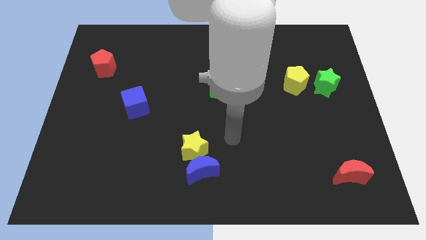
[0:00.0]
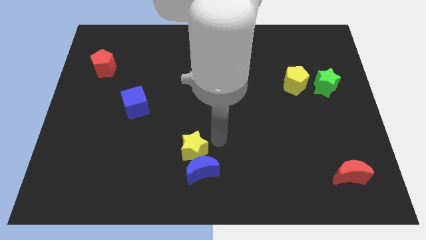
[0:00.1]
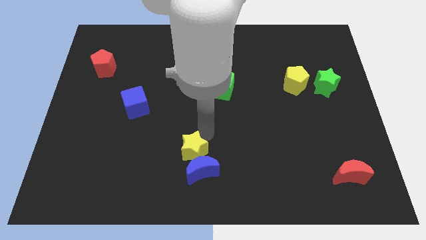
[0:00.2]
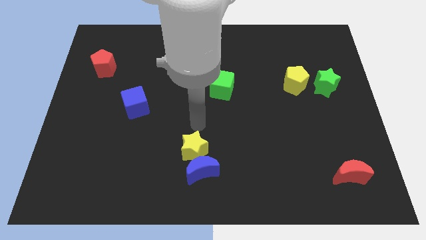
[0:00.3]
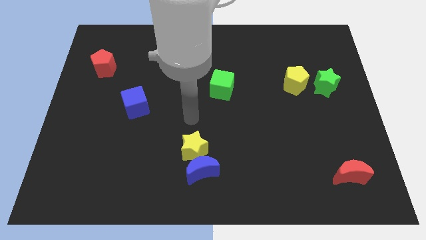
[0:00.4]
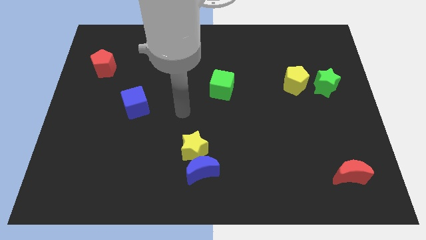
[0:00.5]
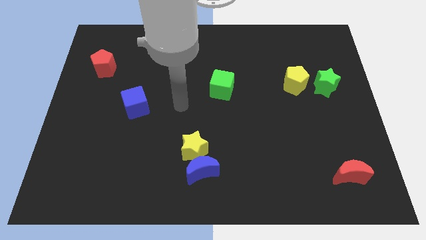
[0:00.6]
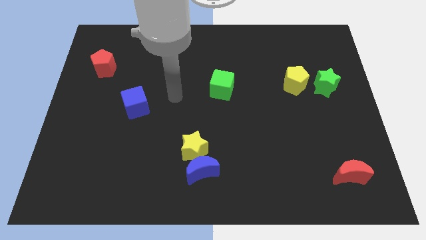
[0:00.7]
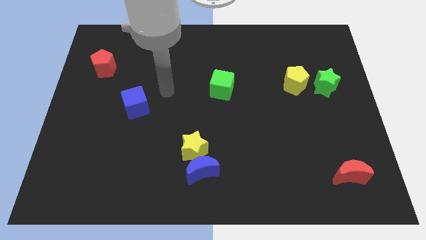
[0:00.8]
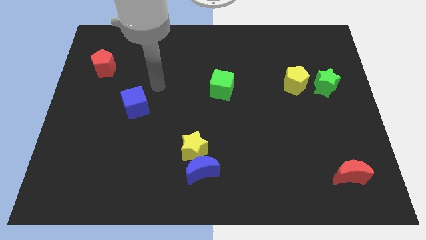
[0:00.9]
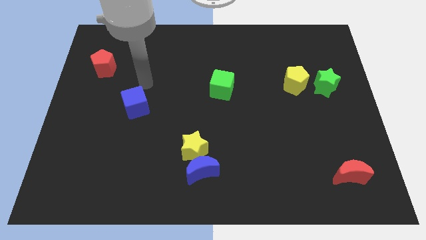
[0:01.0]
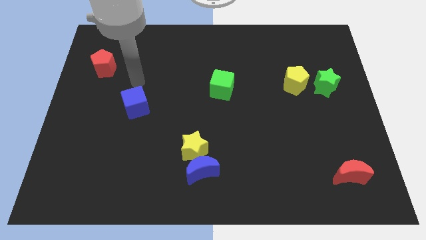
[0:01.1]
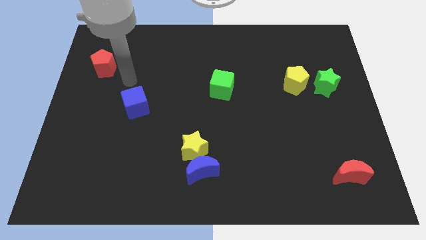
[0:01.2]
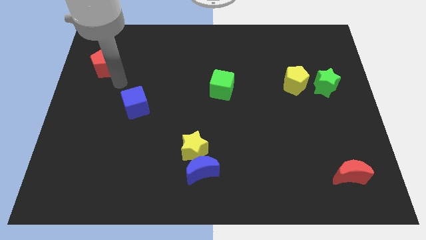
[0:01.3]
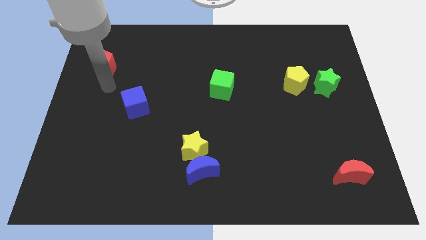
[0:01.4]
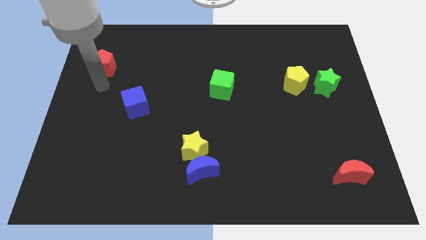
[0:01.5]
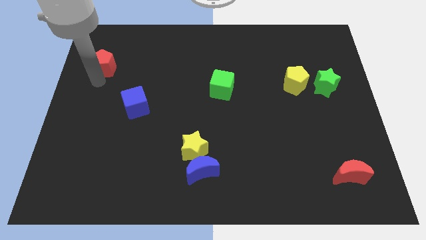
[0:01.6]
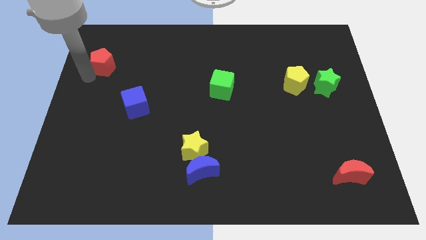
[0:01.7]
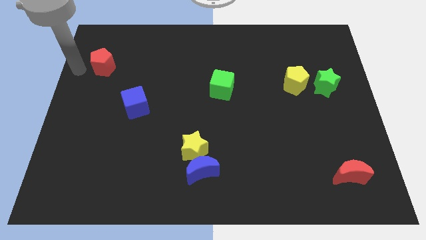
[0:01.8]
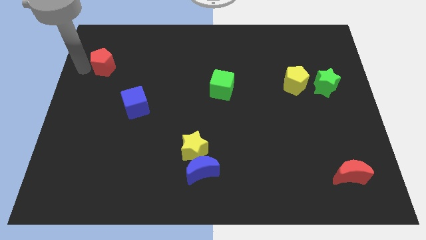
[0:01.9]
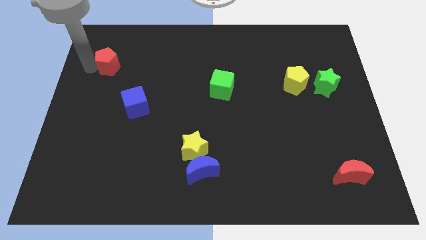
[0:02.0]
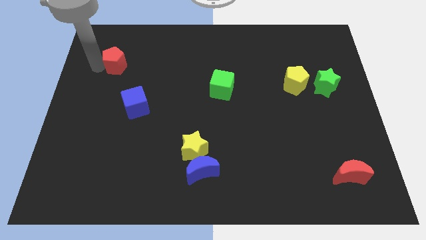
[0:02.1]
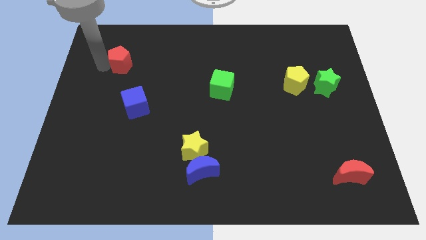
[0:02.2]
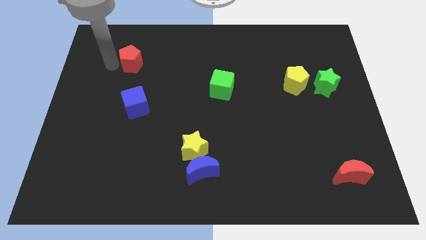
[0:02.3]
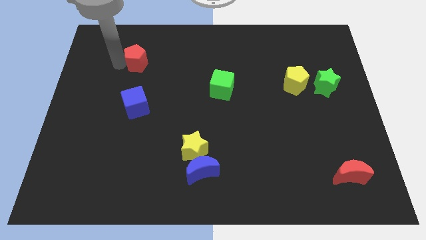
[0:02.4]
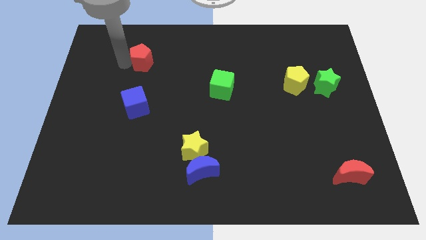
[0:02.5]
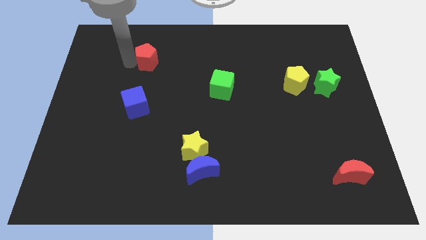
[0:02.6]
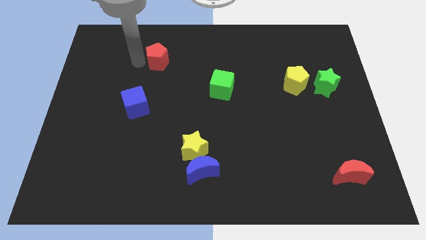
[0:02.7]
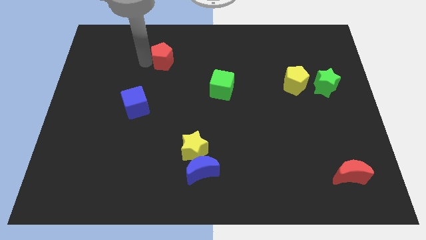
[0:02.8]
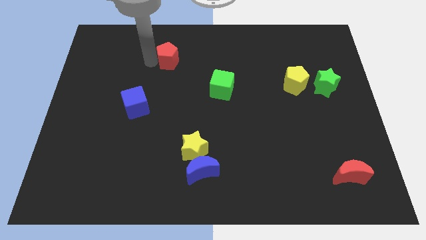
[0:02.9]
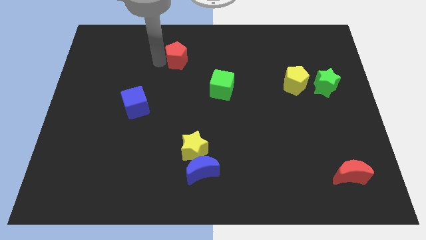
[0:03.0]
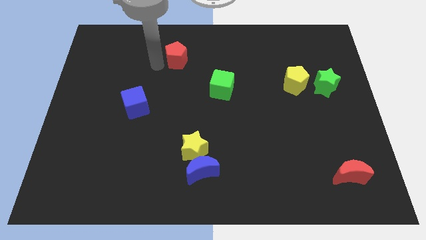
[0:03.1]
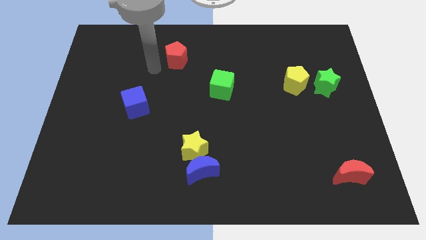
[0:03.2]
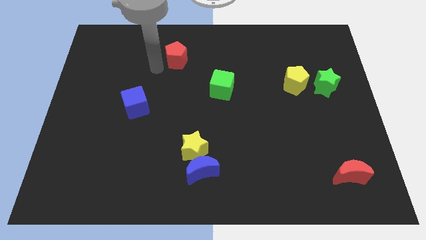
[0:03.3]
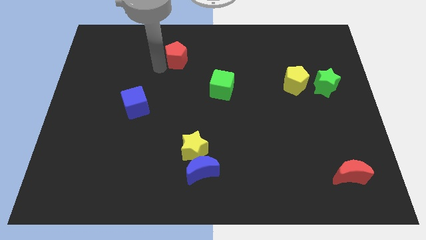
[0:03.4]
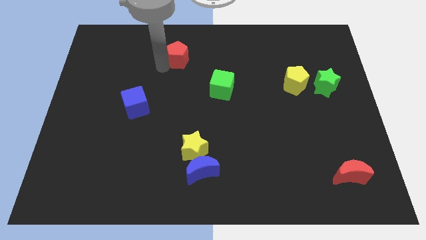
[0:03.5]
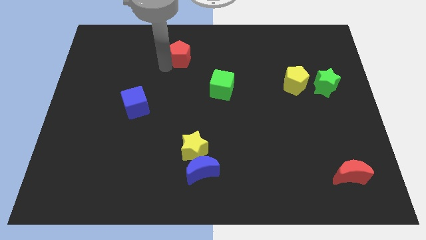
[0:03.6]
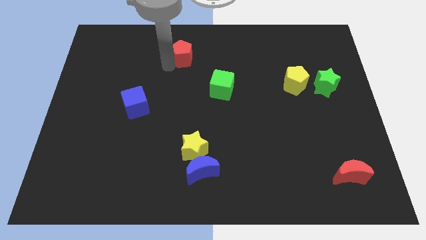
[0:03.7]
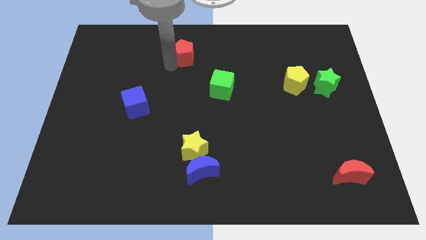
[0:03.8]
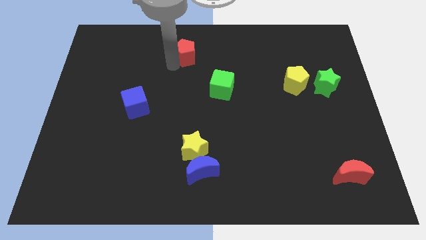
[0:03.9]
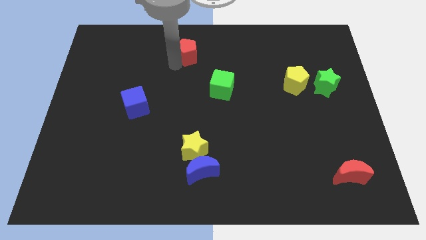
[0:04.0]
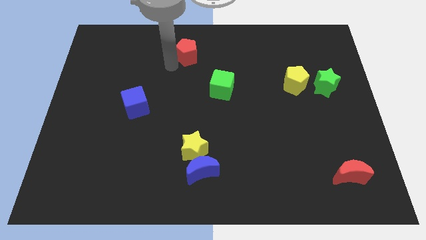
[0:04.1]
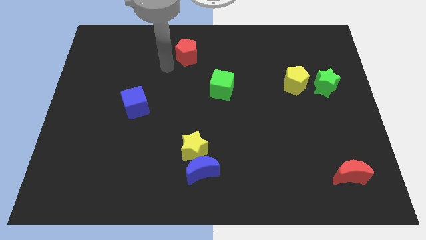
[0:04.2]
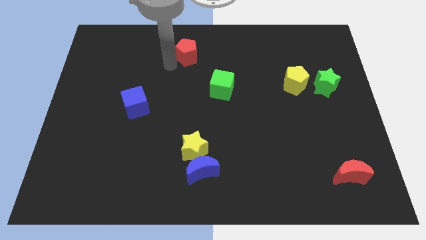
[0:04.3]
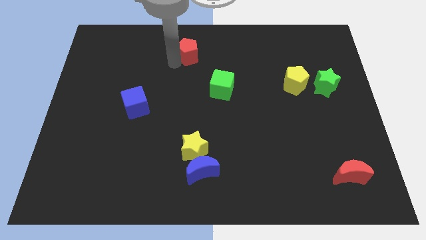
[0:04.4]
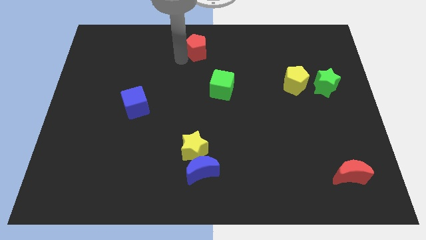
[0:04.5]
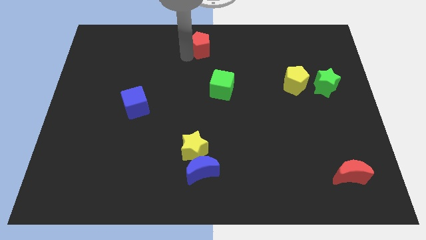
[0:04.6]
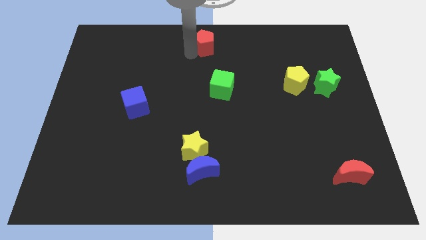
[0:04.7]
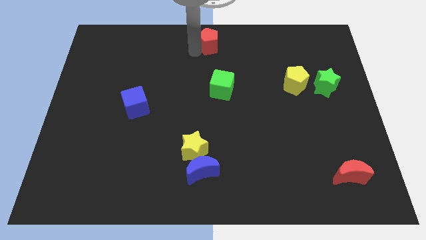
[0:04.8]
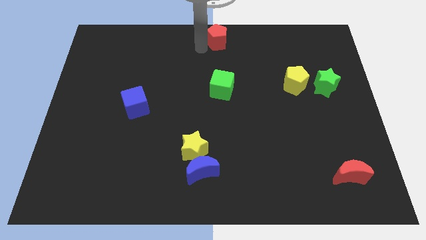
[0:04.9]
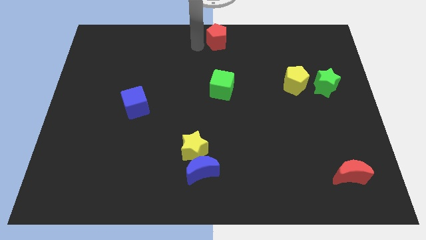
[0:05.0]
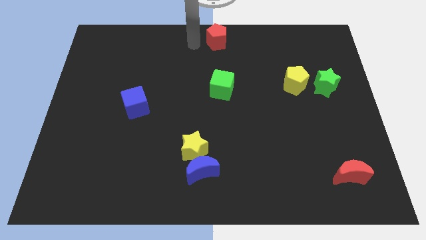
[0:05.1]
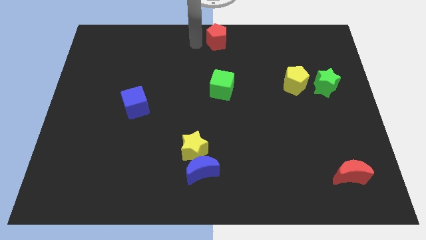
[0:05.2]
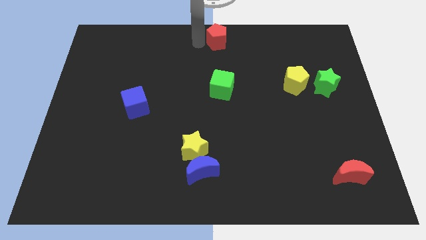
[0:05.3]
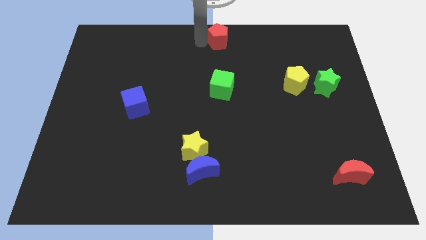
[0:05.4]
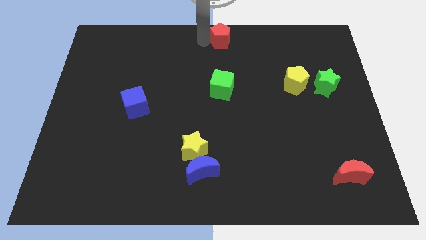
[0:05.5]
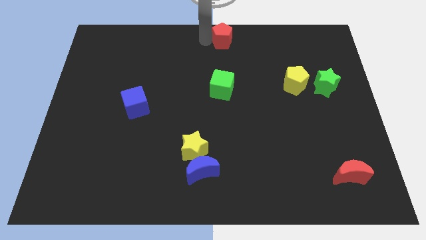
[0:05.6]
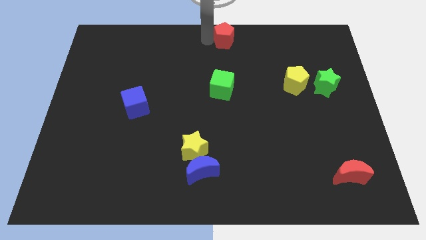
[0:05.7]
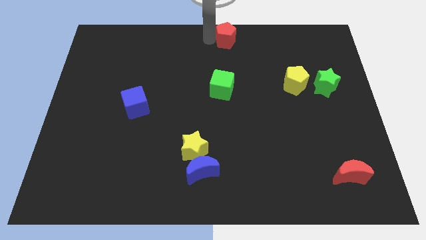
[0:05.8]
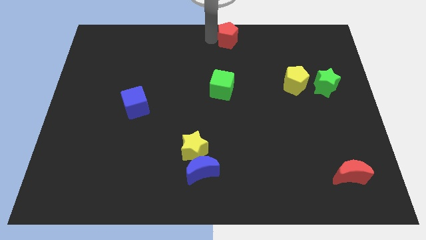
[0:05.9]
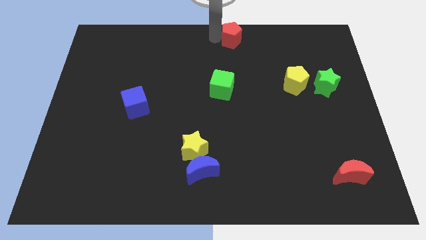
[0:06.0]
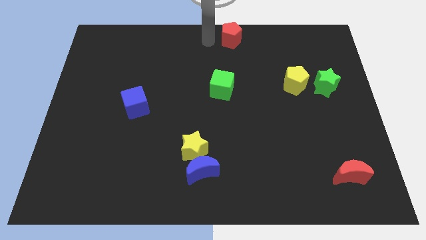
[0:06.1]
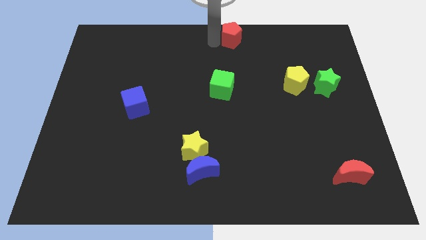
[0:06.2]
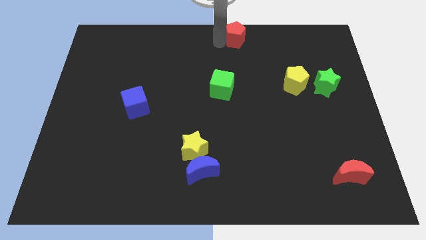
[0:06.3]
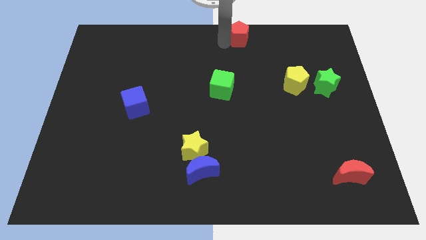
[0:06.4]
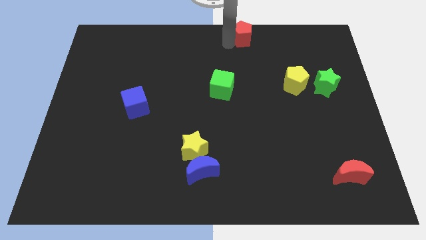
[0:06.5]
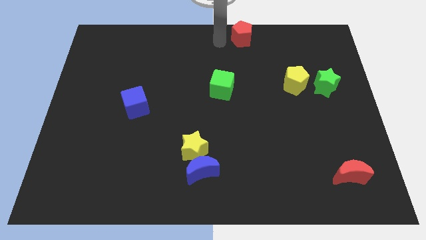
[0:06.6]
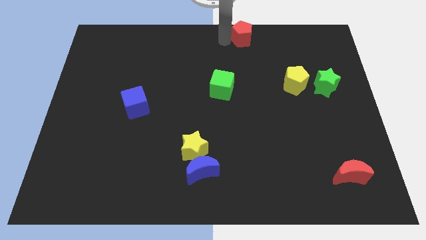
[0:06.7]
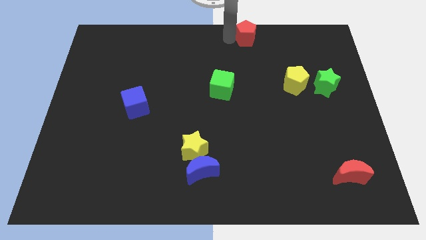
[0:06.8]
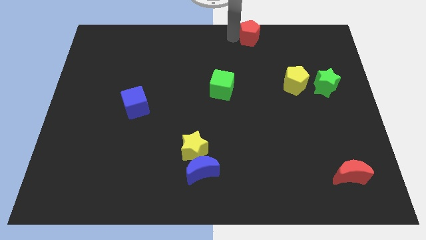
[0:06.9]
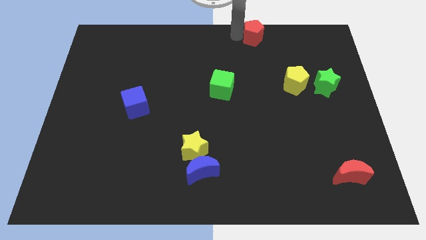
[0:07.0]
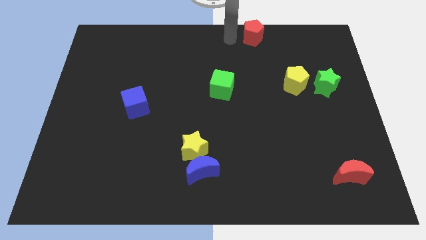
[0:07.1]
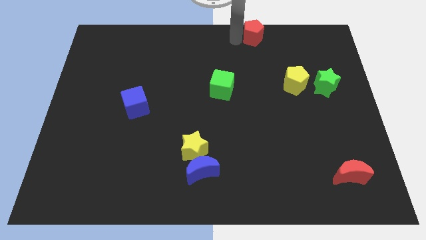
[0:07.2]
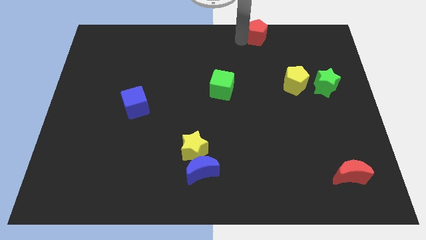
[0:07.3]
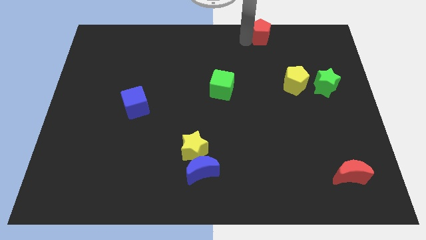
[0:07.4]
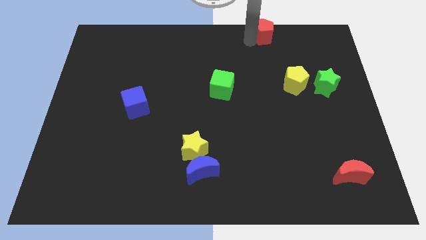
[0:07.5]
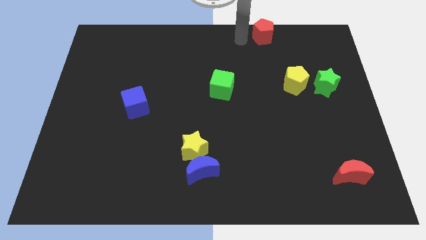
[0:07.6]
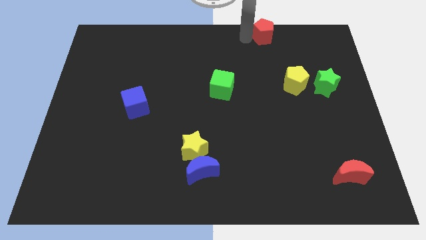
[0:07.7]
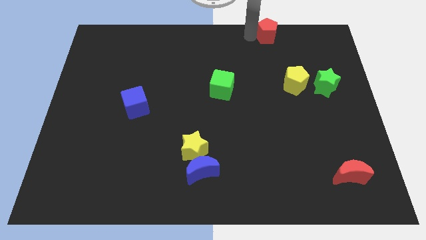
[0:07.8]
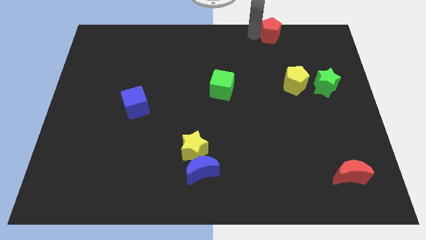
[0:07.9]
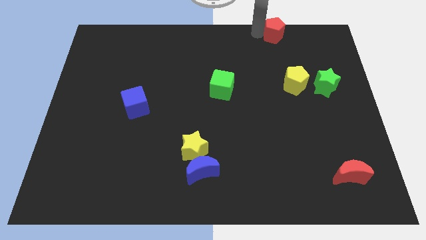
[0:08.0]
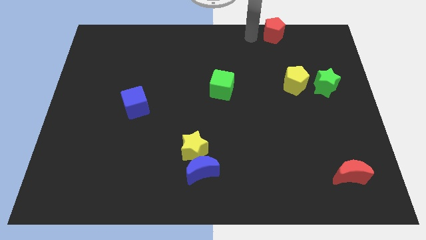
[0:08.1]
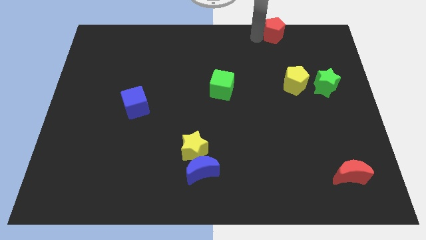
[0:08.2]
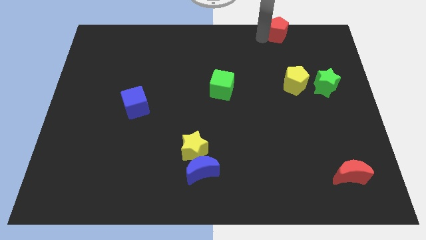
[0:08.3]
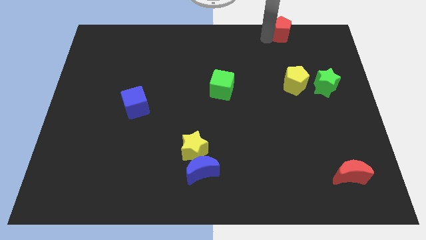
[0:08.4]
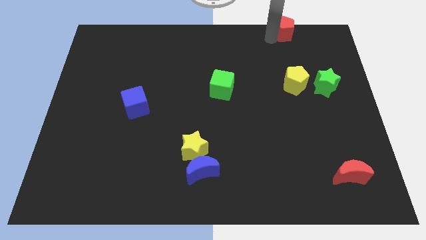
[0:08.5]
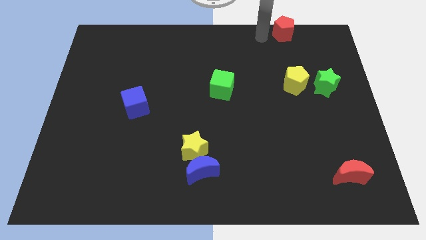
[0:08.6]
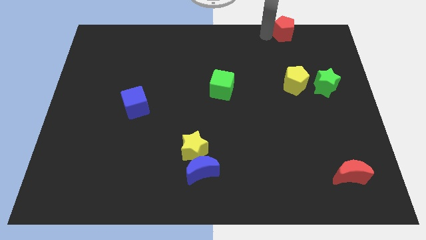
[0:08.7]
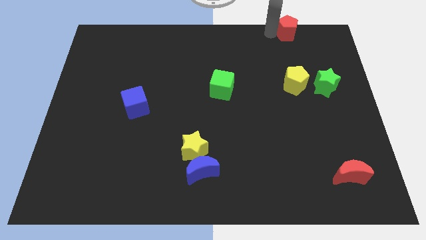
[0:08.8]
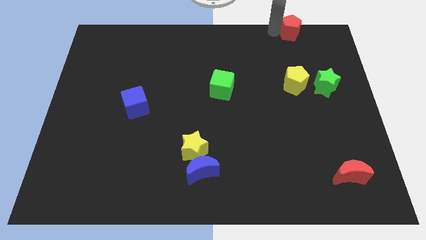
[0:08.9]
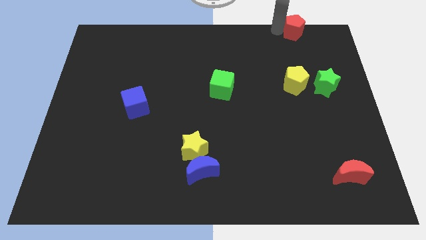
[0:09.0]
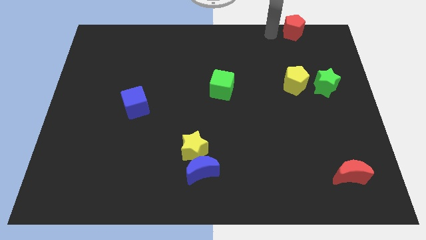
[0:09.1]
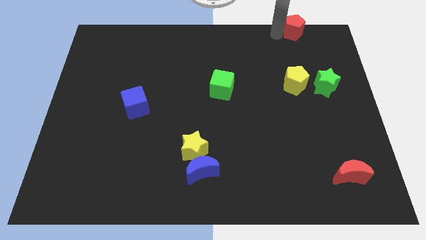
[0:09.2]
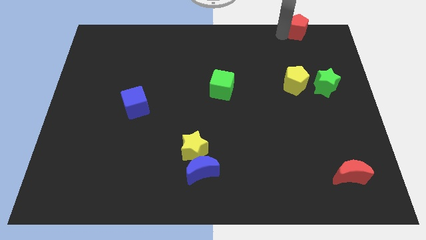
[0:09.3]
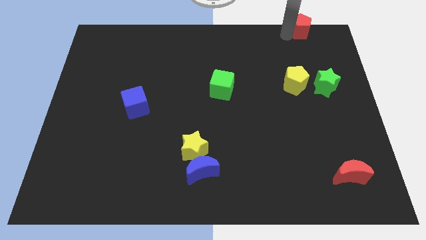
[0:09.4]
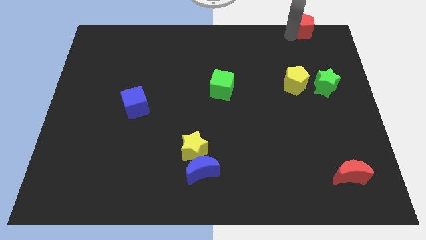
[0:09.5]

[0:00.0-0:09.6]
move the red pentagon to the top right
